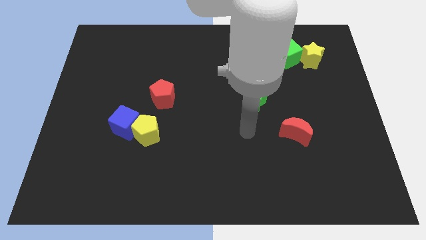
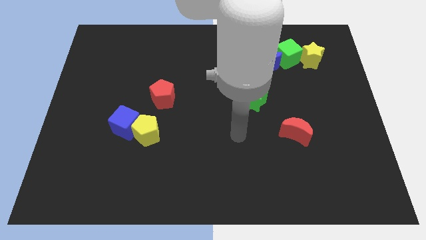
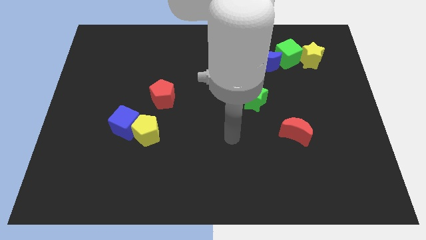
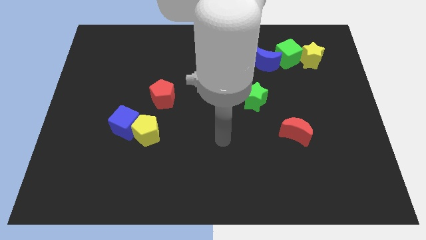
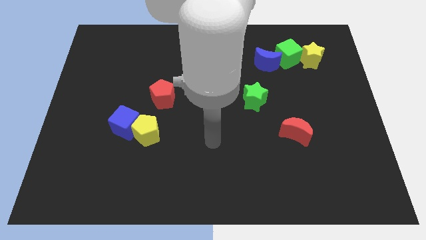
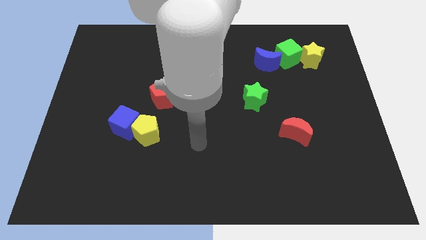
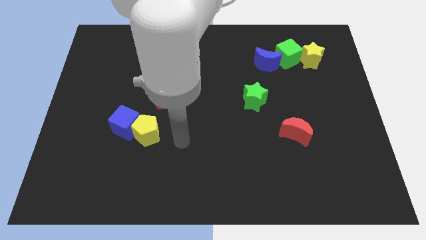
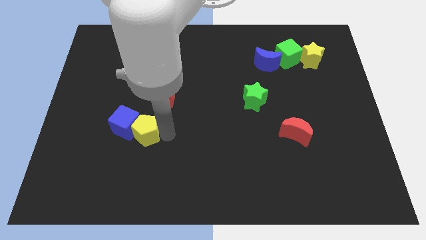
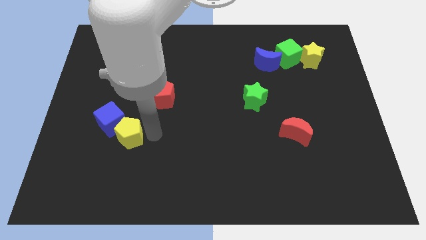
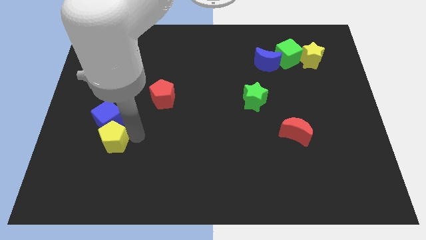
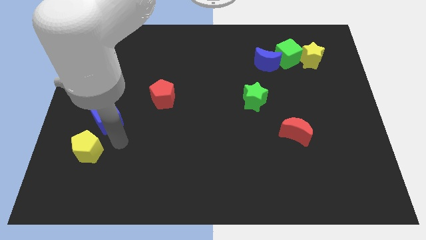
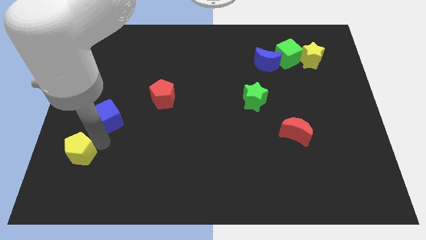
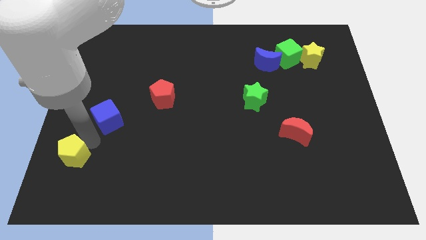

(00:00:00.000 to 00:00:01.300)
move the blue cube away from the yellow pentagon

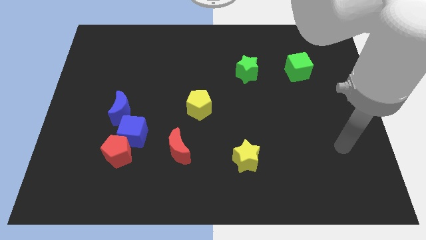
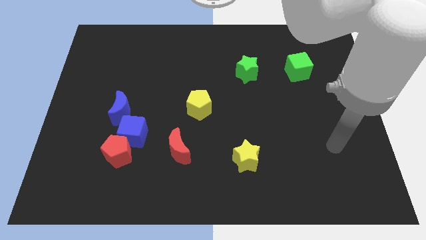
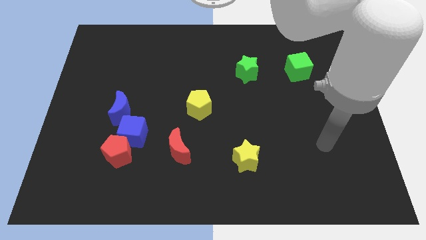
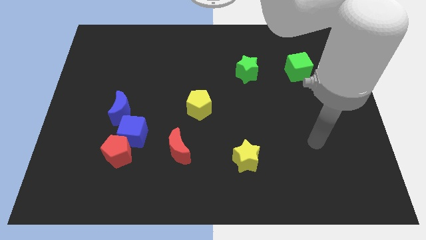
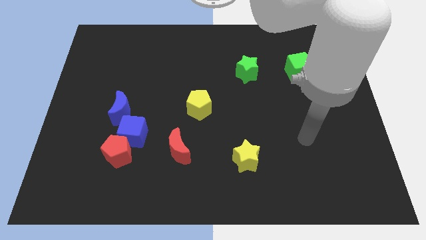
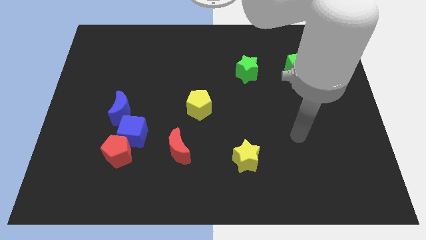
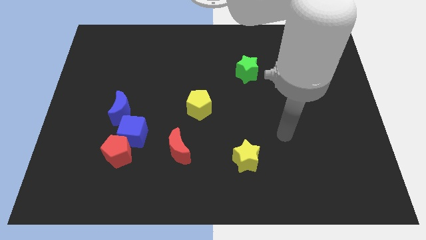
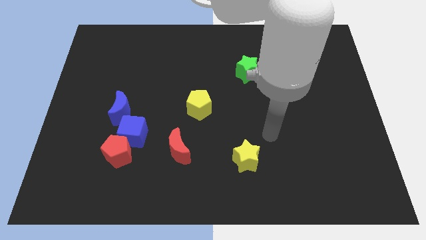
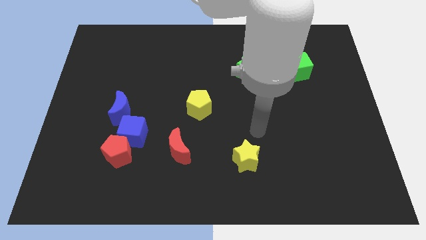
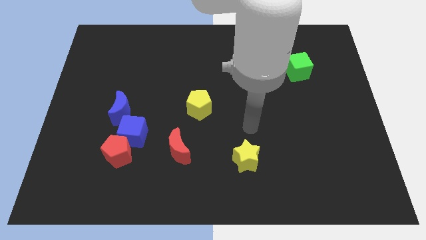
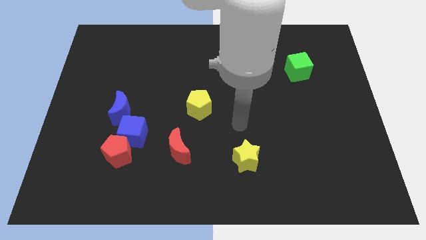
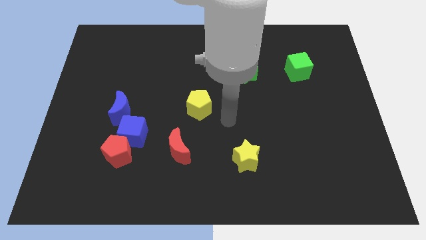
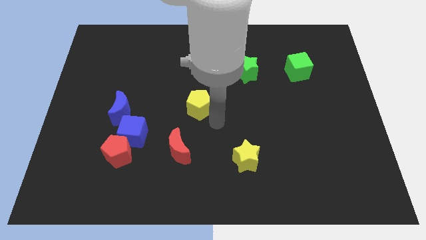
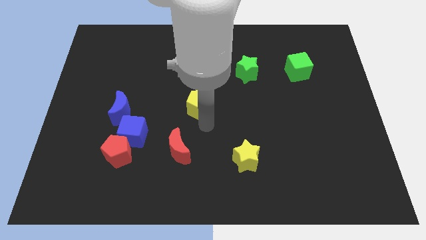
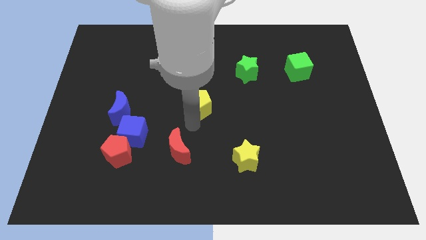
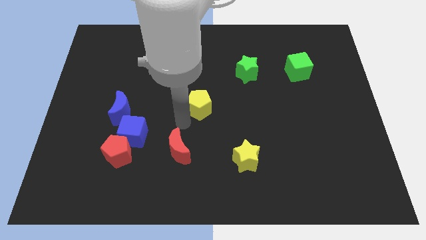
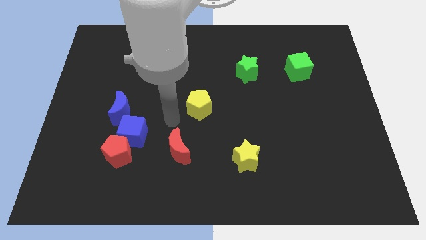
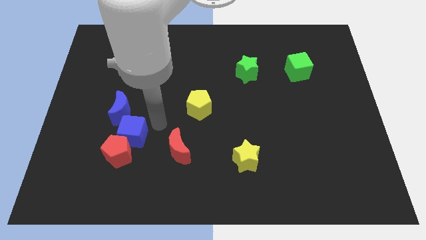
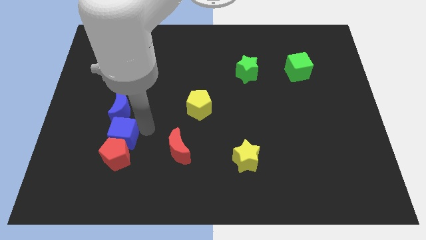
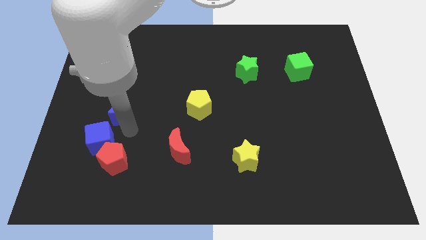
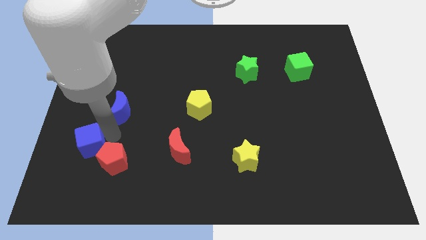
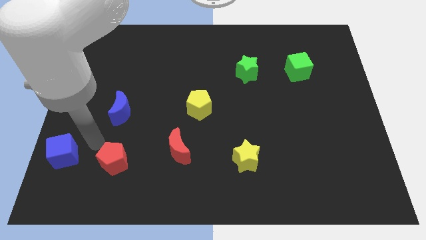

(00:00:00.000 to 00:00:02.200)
pull the red pentagon apart from the blue cube

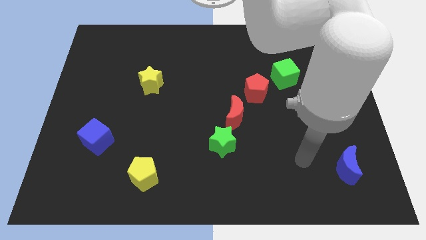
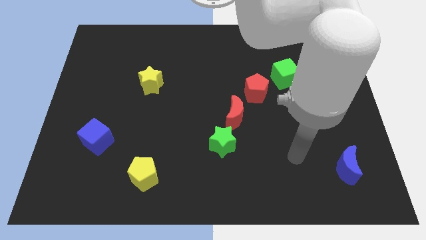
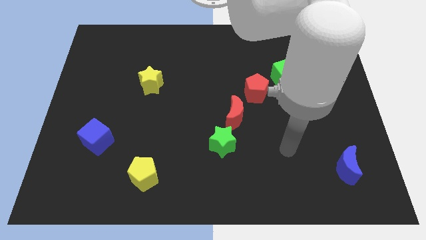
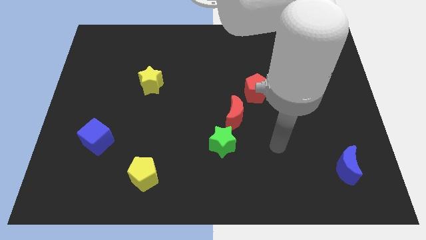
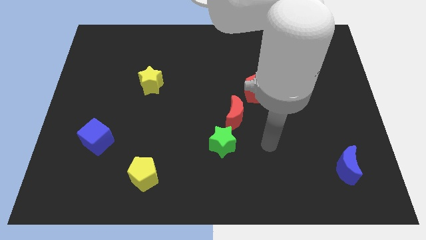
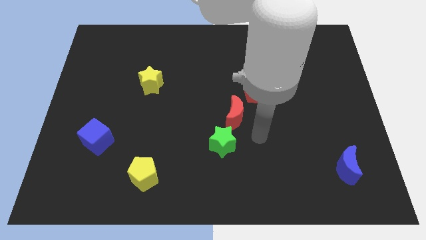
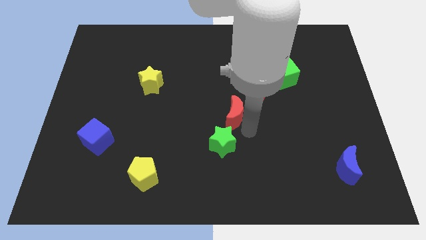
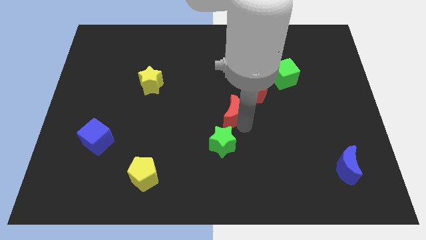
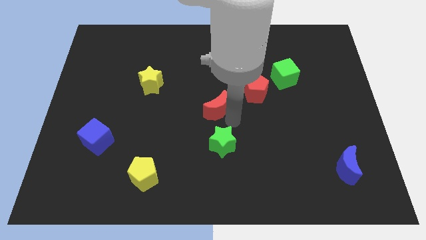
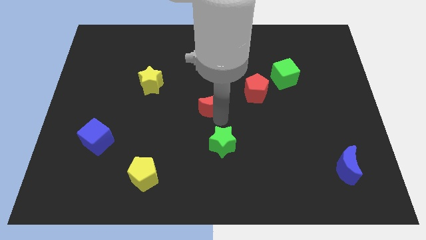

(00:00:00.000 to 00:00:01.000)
separate the green star from the red moon

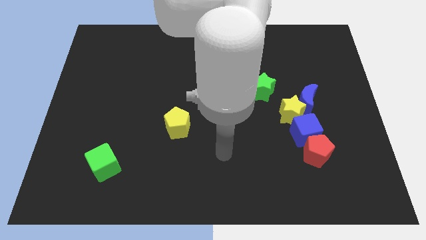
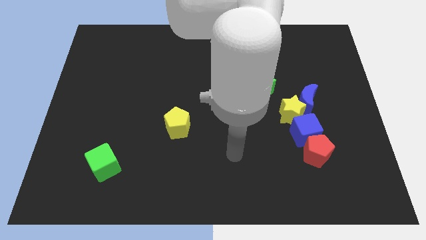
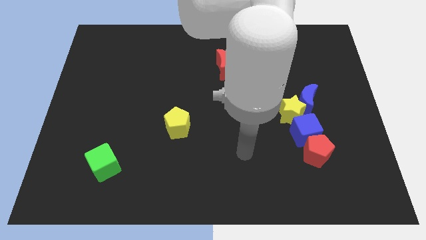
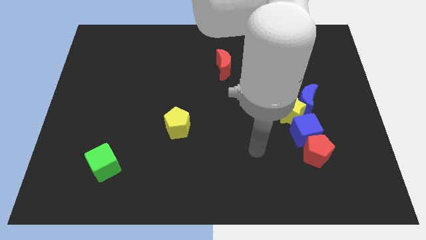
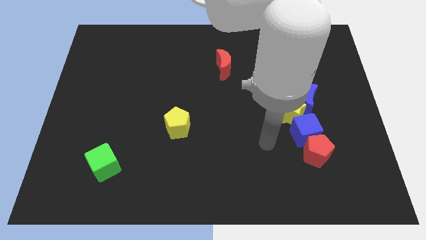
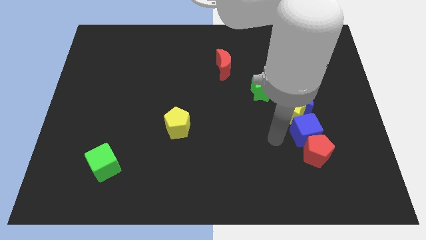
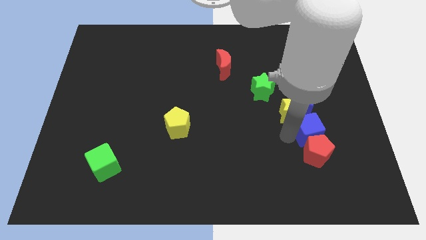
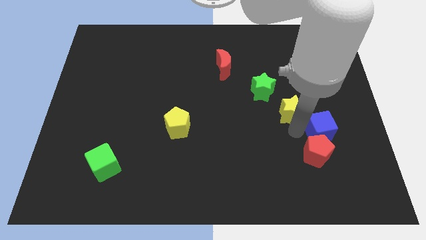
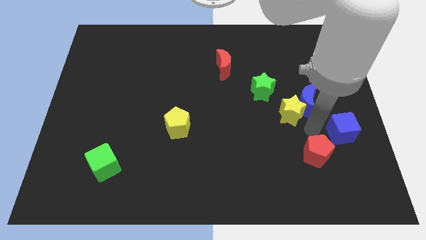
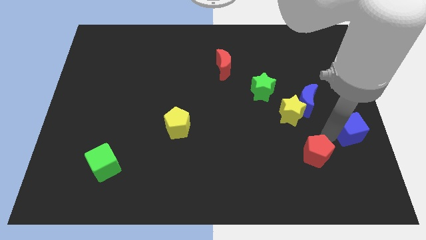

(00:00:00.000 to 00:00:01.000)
separate the red pentagon from the blue cube

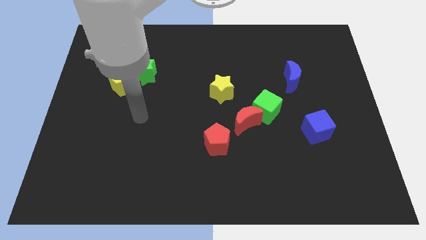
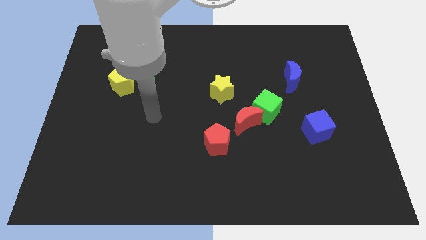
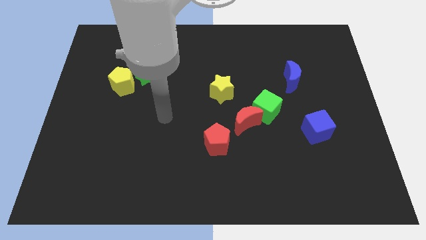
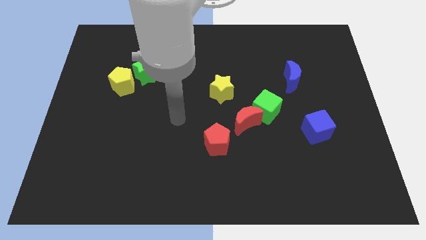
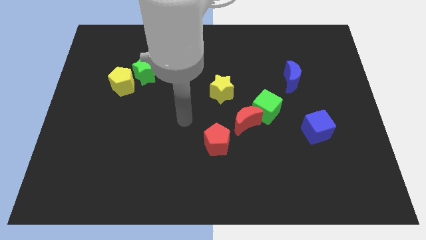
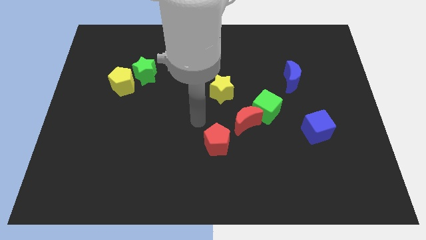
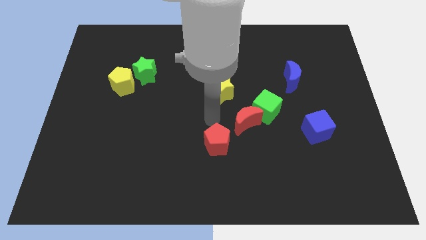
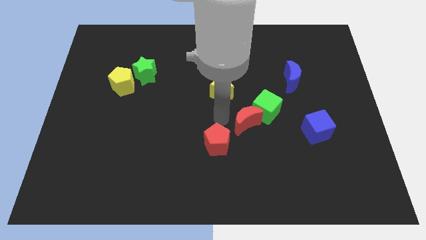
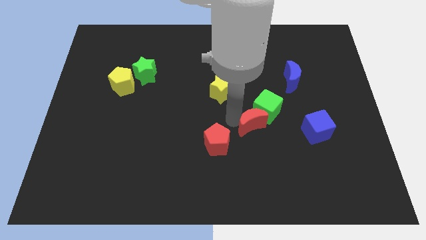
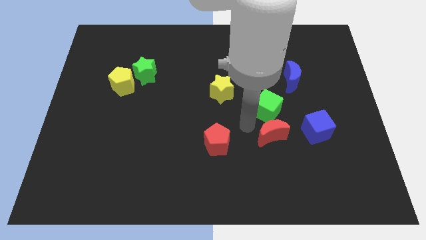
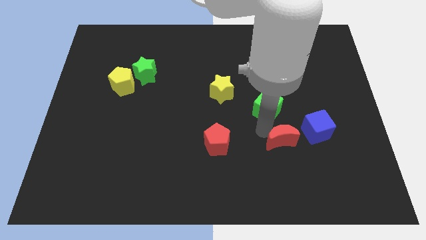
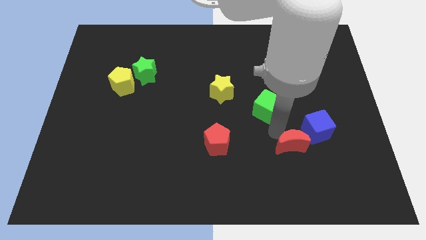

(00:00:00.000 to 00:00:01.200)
move the green cube away from the red moon

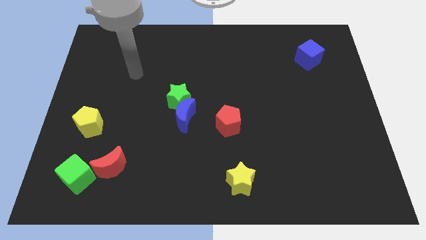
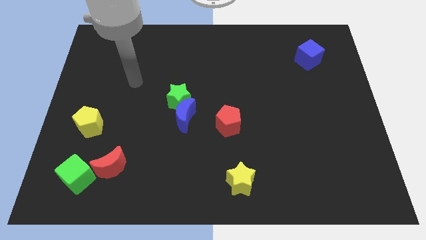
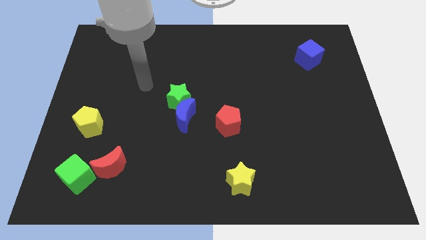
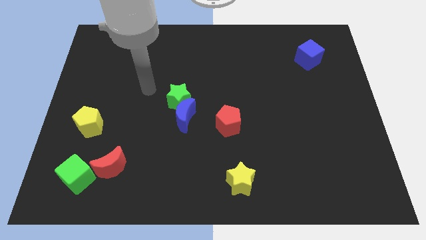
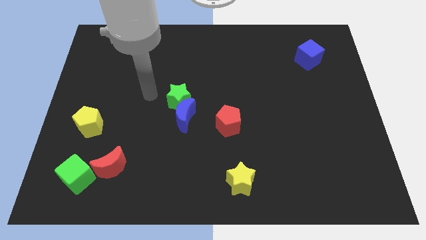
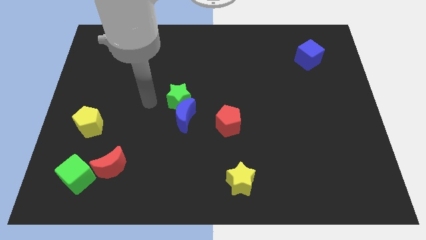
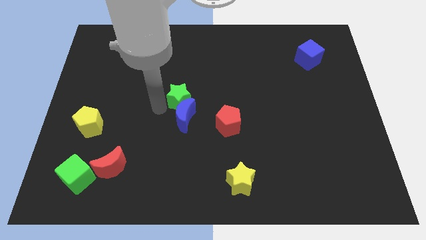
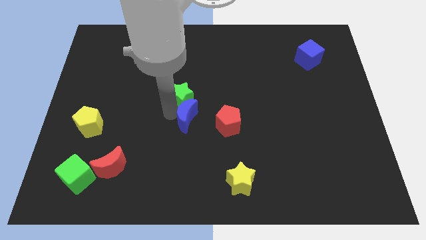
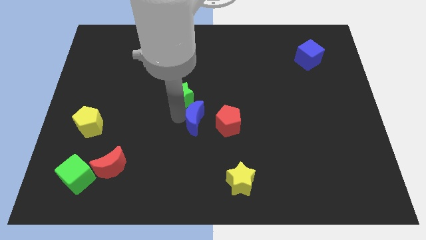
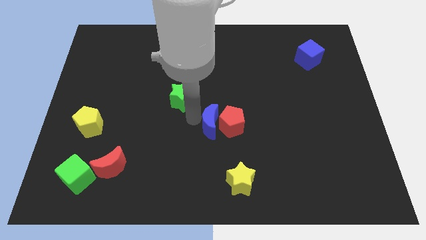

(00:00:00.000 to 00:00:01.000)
move the green star away from the blue moon

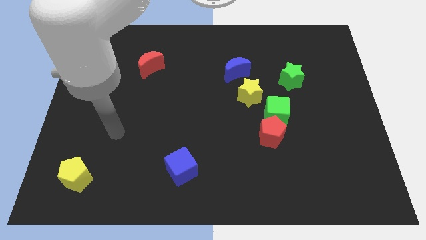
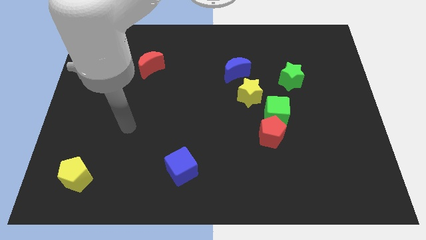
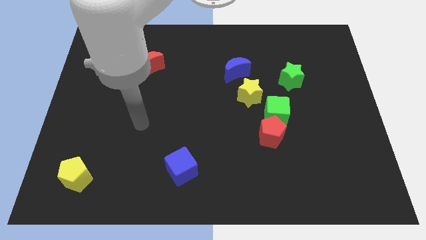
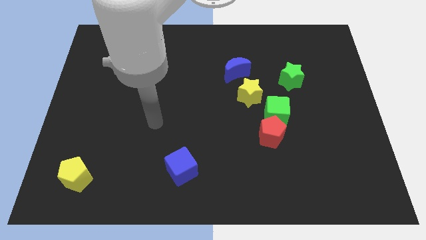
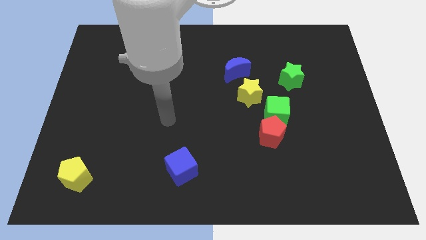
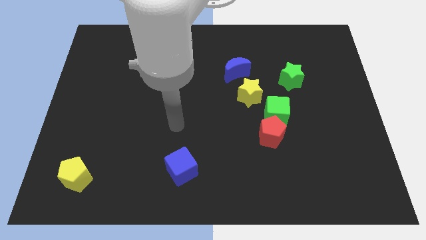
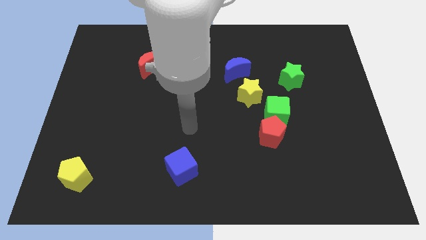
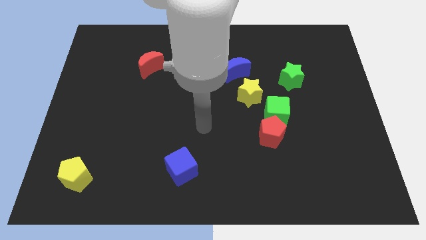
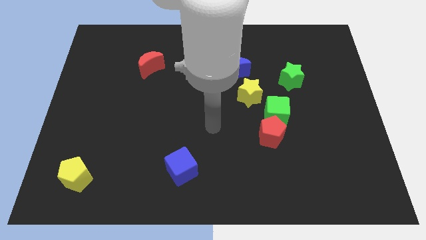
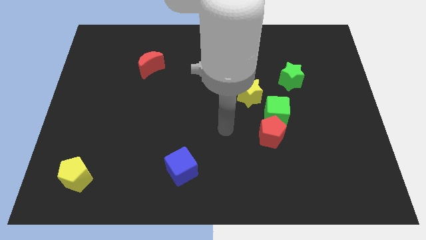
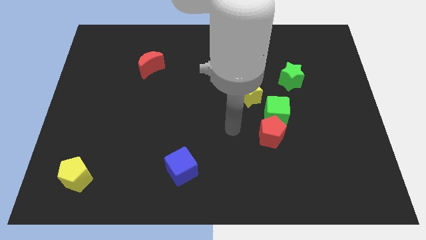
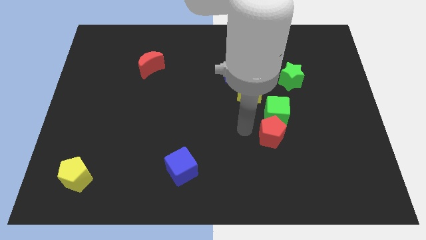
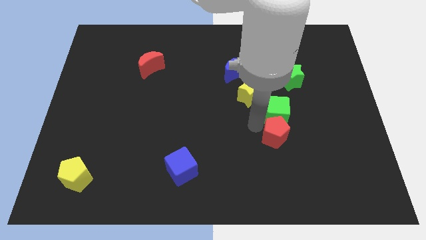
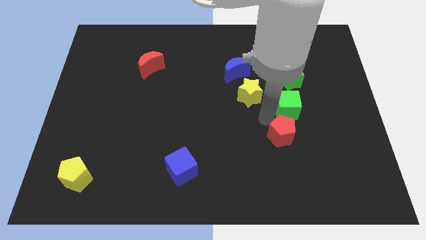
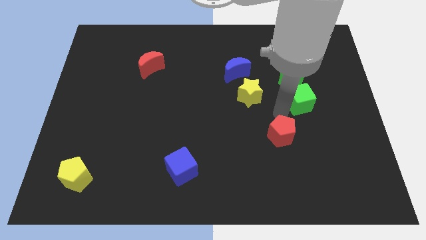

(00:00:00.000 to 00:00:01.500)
separate the red pentagon from the green cube
